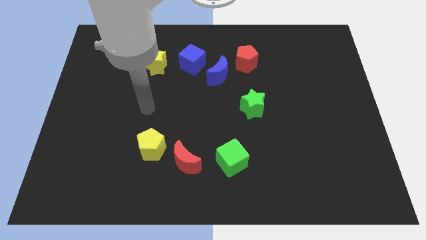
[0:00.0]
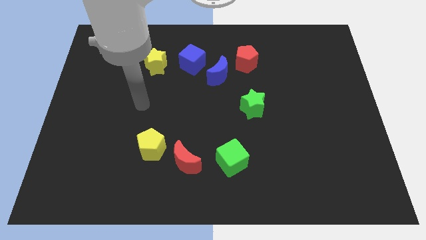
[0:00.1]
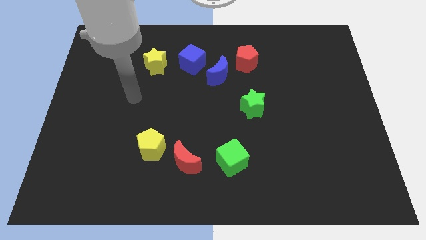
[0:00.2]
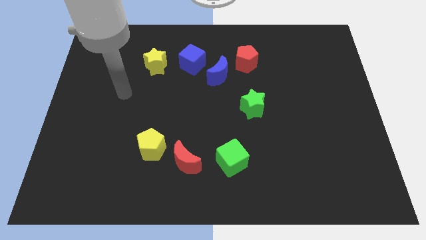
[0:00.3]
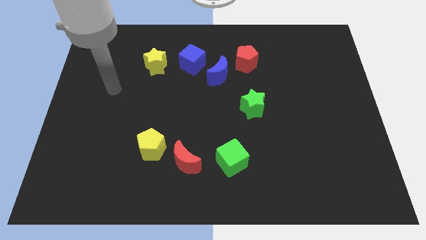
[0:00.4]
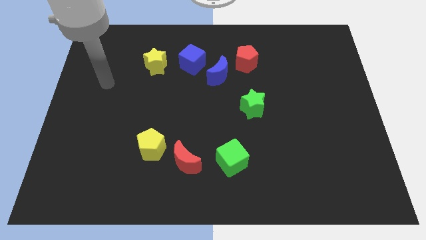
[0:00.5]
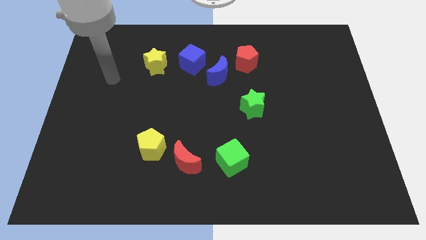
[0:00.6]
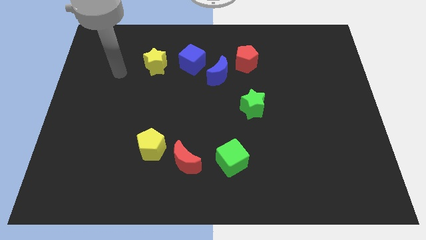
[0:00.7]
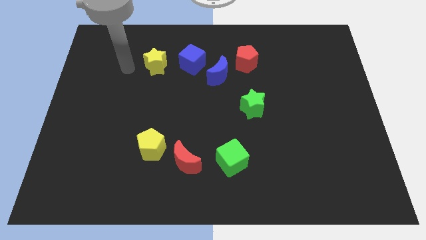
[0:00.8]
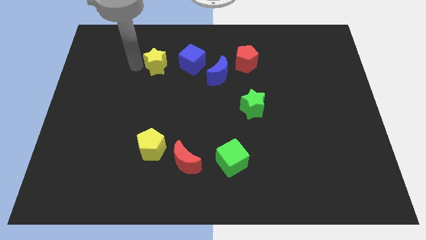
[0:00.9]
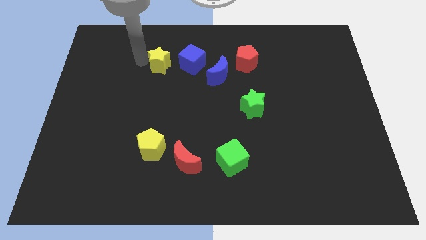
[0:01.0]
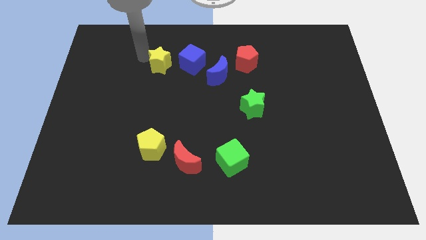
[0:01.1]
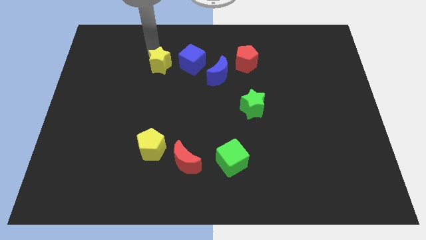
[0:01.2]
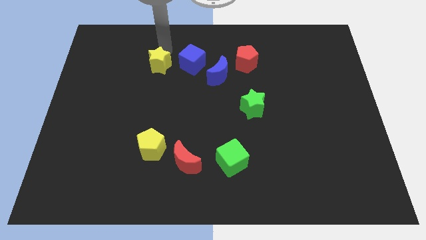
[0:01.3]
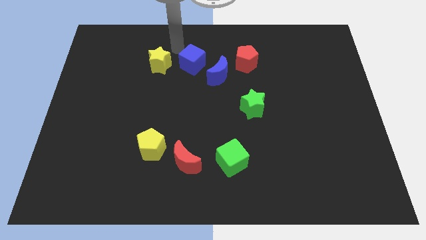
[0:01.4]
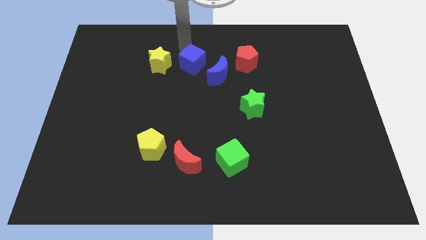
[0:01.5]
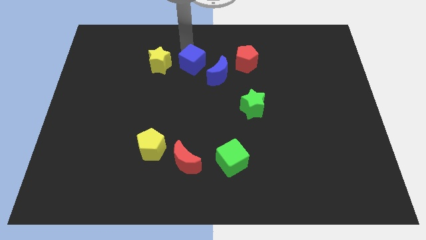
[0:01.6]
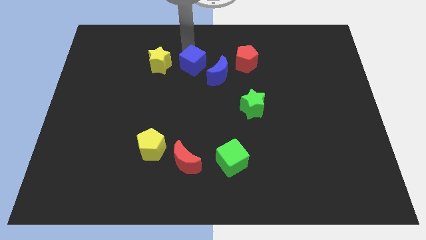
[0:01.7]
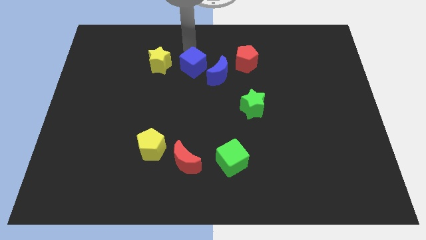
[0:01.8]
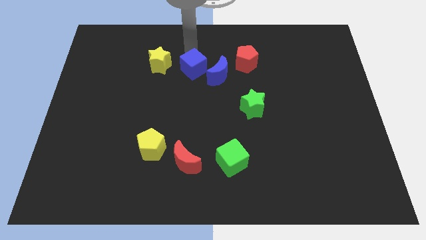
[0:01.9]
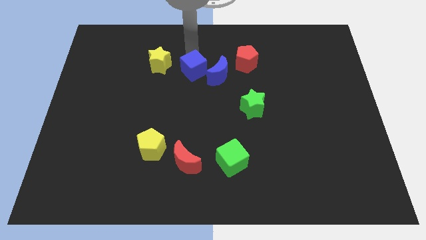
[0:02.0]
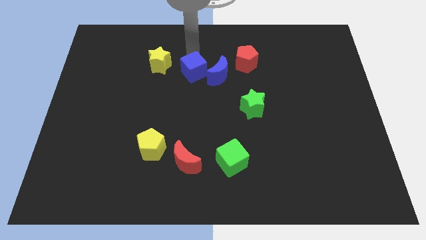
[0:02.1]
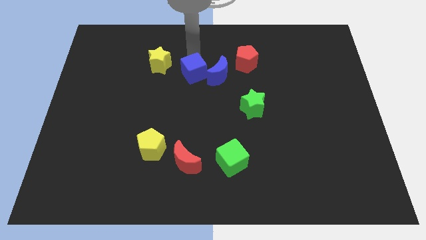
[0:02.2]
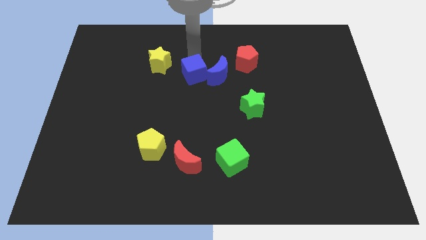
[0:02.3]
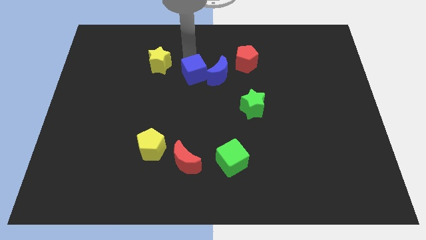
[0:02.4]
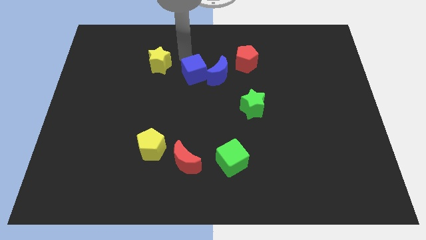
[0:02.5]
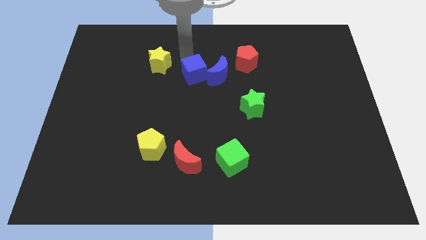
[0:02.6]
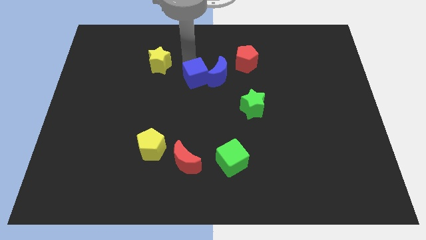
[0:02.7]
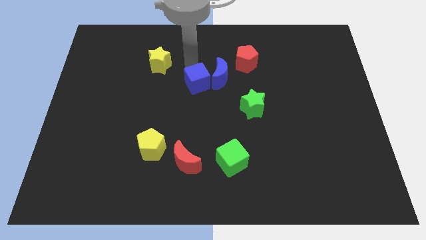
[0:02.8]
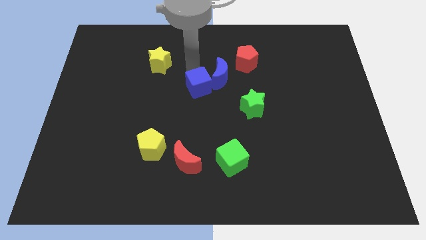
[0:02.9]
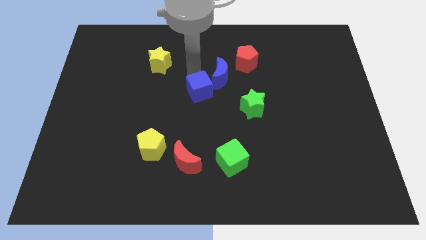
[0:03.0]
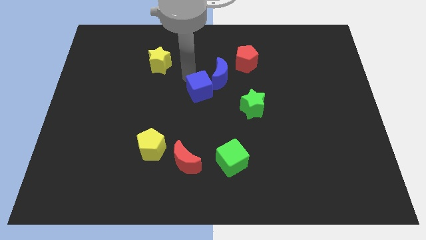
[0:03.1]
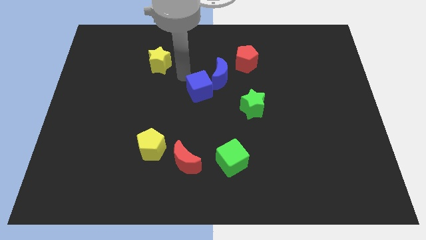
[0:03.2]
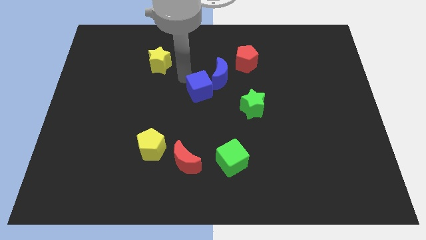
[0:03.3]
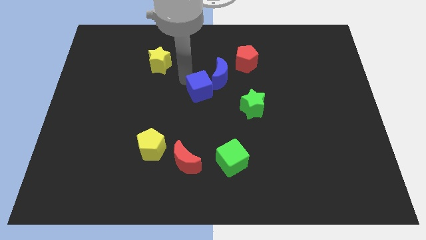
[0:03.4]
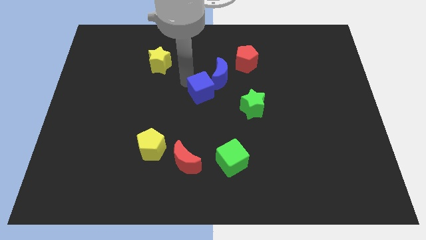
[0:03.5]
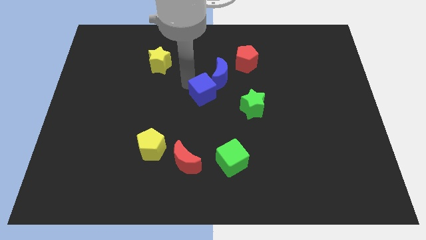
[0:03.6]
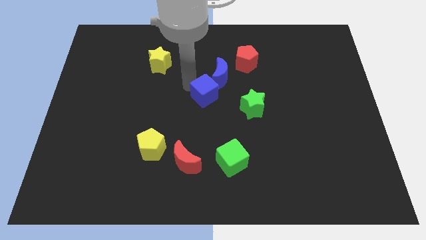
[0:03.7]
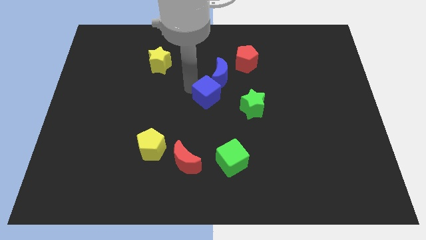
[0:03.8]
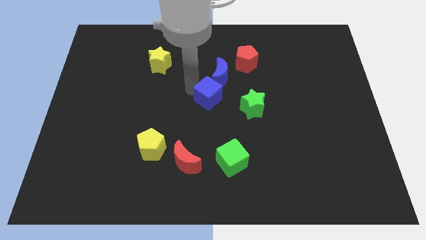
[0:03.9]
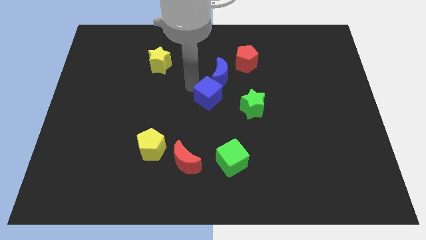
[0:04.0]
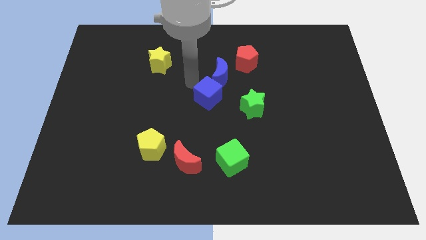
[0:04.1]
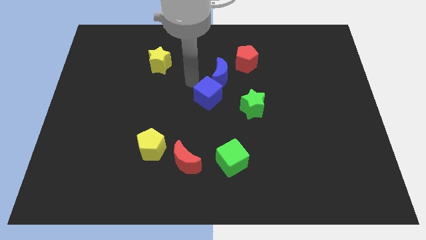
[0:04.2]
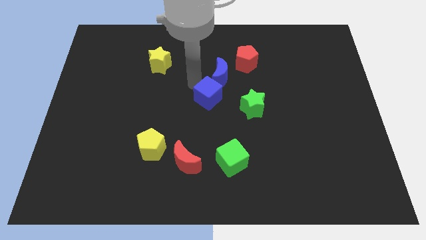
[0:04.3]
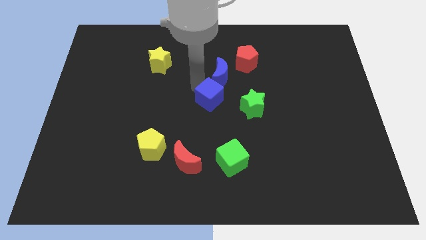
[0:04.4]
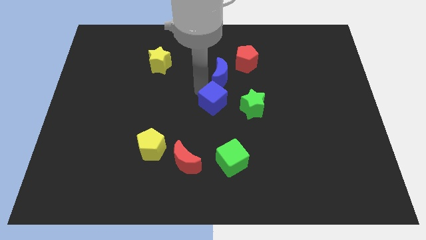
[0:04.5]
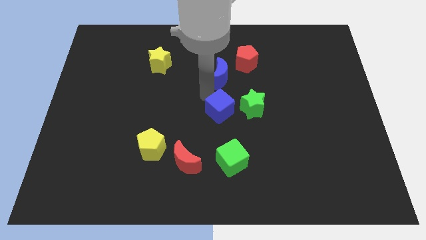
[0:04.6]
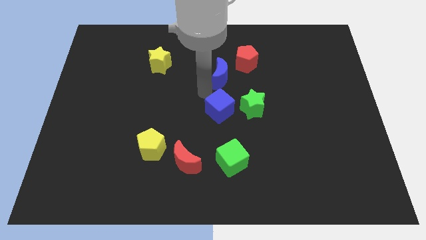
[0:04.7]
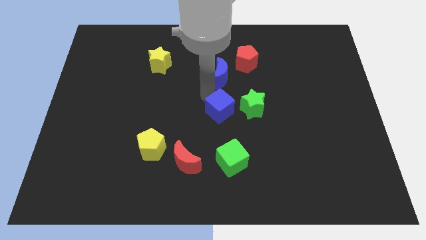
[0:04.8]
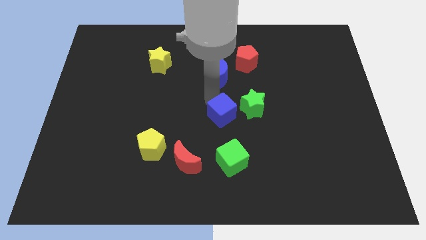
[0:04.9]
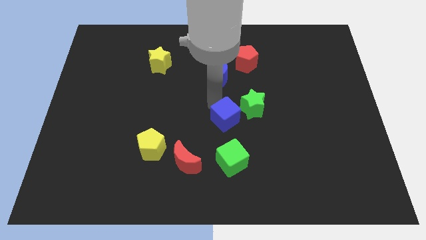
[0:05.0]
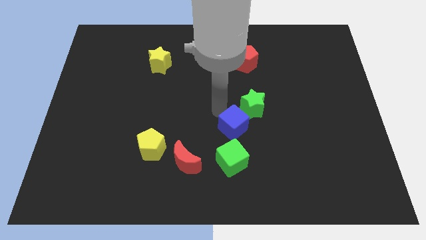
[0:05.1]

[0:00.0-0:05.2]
push the blue cube to the bottom side of the green star

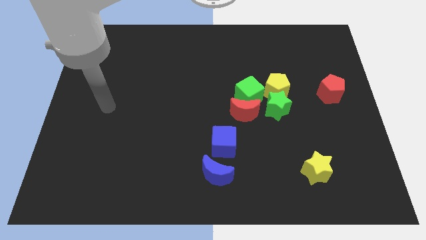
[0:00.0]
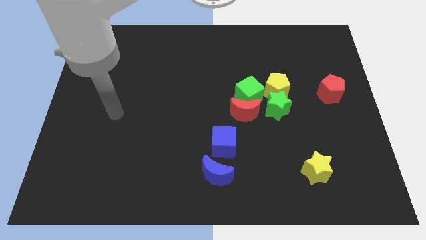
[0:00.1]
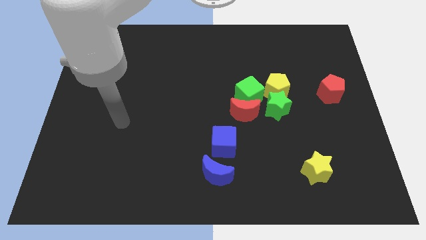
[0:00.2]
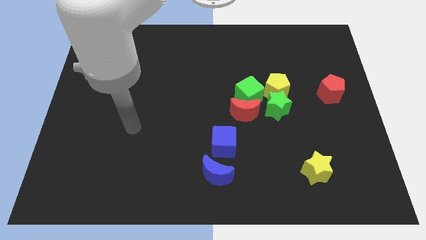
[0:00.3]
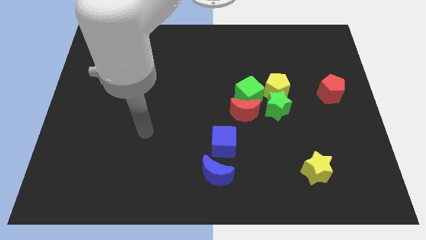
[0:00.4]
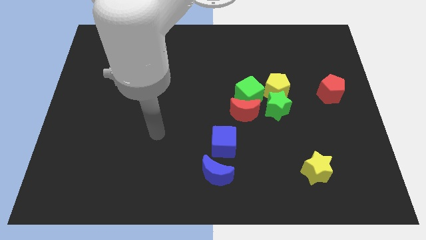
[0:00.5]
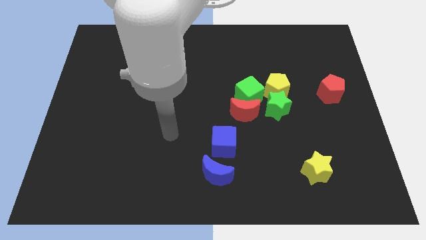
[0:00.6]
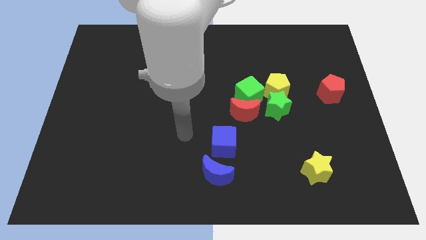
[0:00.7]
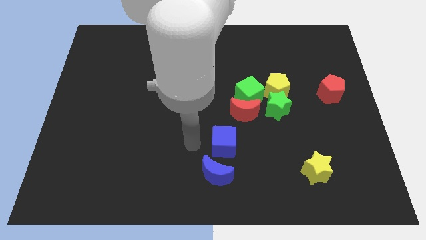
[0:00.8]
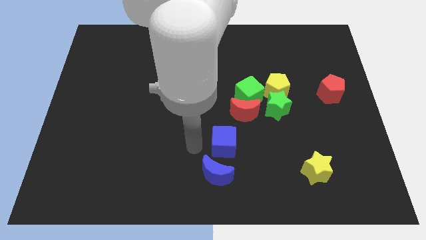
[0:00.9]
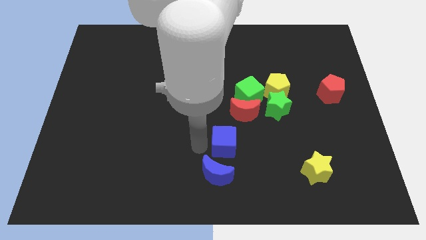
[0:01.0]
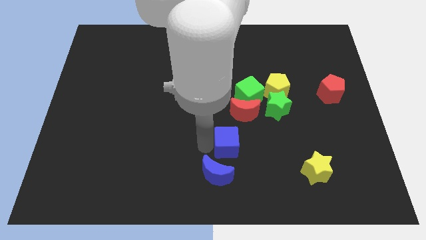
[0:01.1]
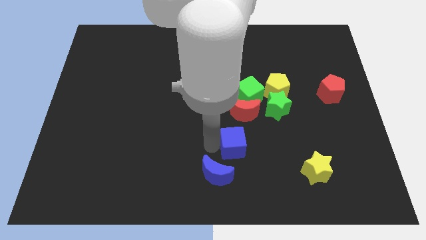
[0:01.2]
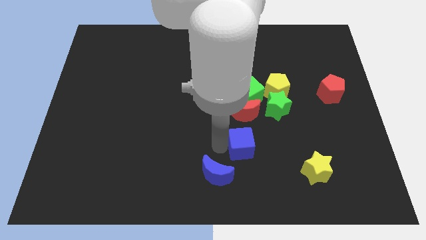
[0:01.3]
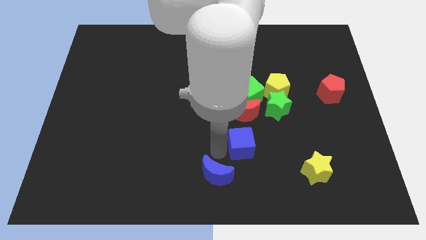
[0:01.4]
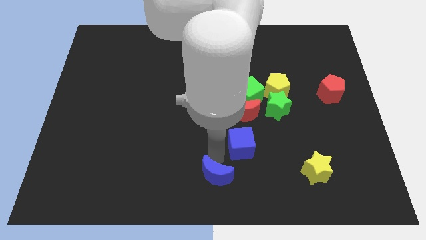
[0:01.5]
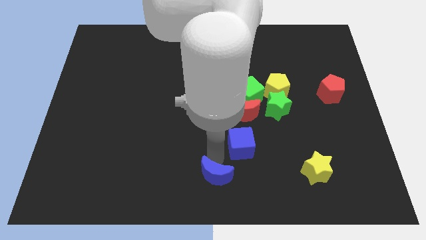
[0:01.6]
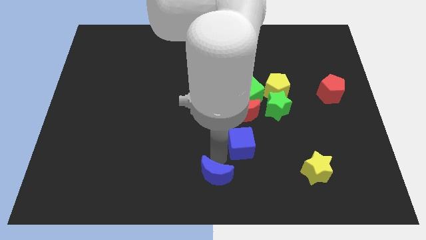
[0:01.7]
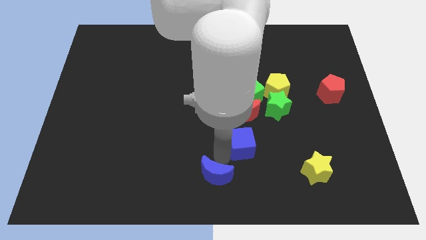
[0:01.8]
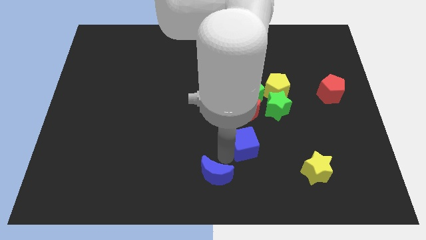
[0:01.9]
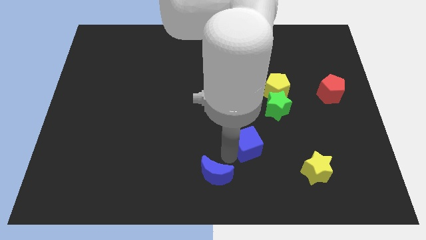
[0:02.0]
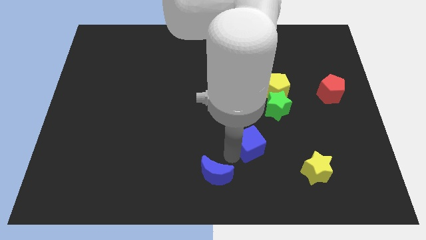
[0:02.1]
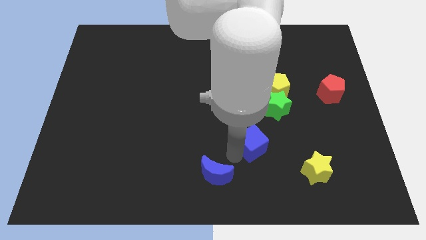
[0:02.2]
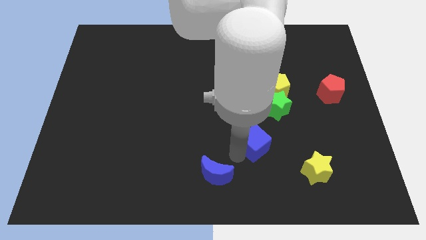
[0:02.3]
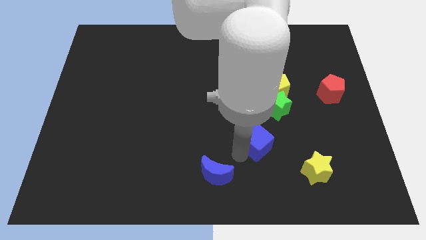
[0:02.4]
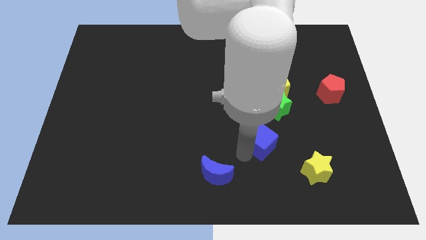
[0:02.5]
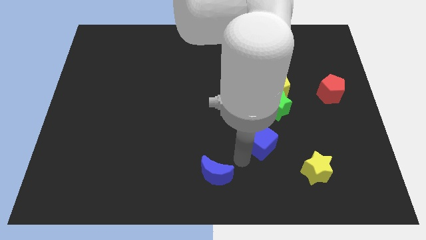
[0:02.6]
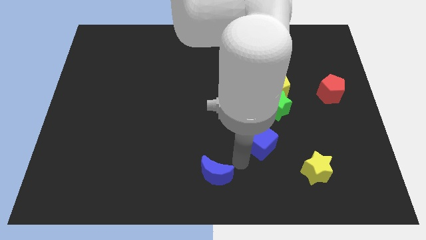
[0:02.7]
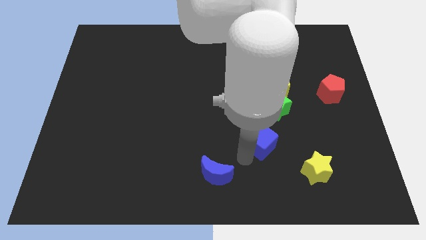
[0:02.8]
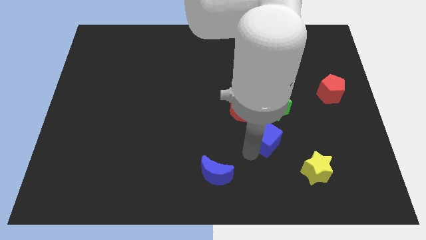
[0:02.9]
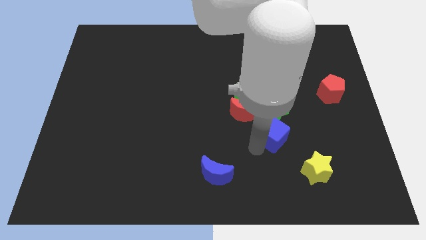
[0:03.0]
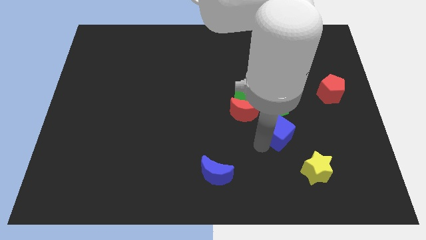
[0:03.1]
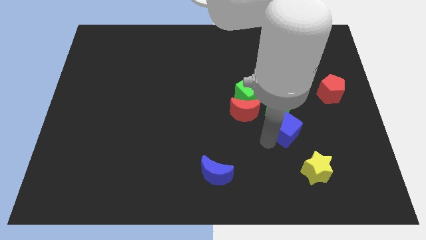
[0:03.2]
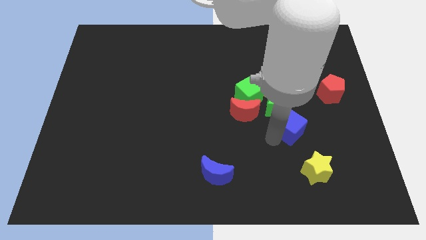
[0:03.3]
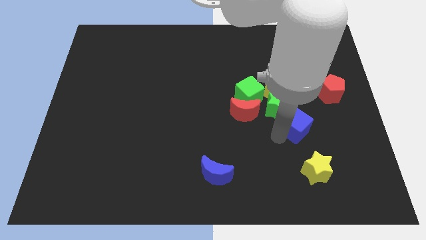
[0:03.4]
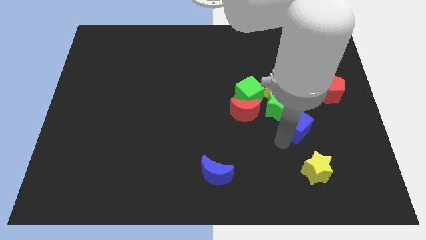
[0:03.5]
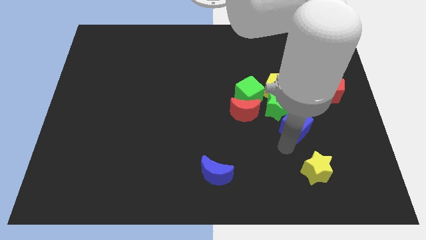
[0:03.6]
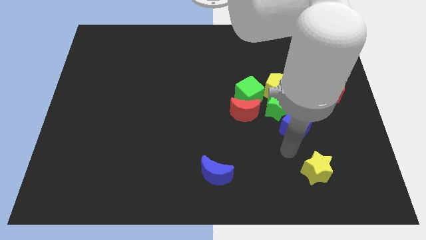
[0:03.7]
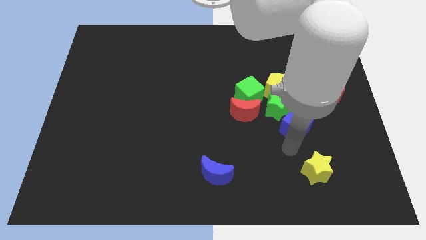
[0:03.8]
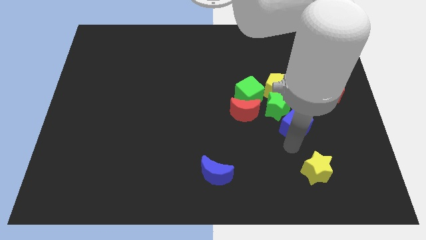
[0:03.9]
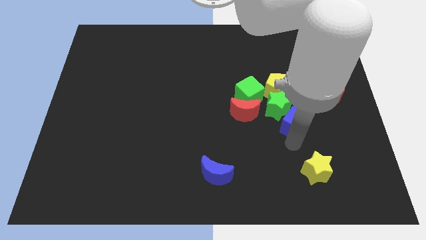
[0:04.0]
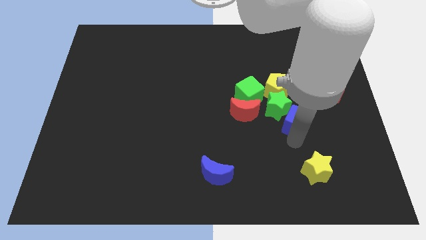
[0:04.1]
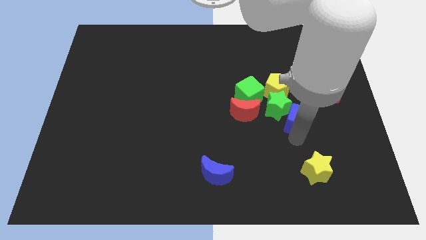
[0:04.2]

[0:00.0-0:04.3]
slide the blue cube to the bottom right side of the yellow pentagon
